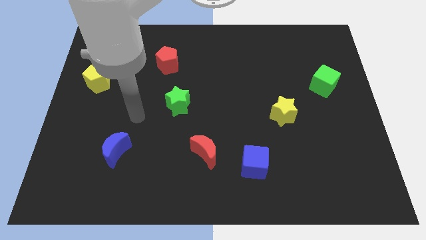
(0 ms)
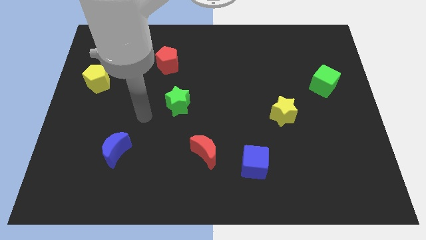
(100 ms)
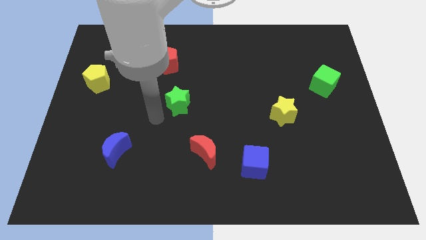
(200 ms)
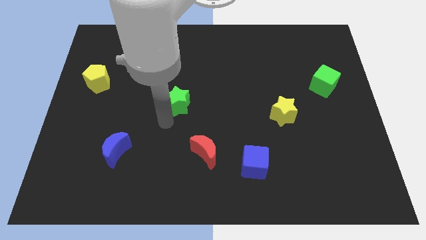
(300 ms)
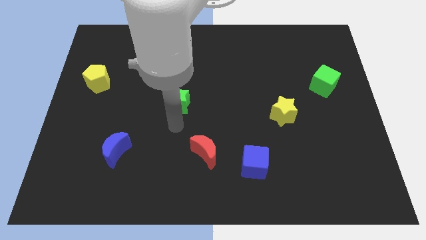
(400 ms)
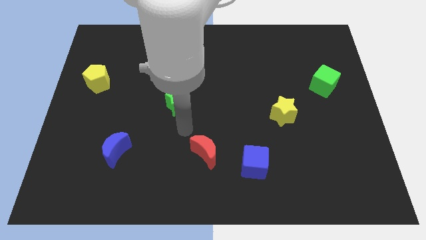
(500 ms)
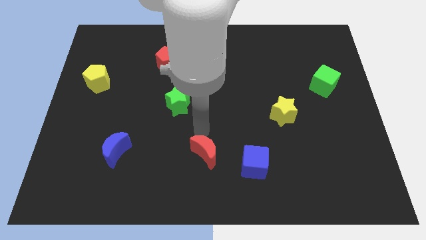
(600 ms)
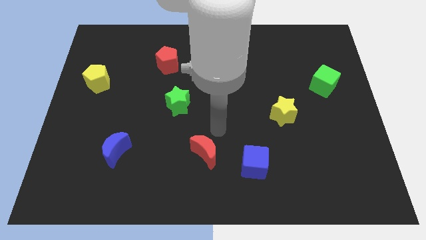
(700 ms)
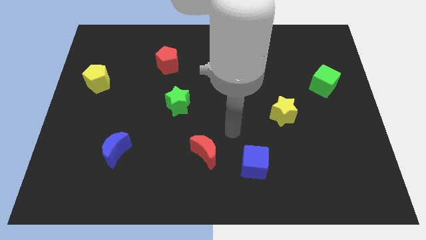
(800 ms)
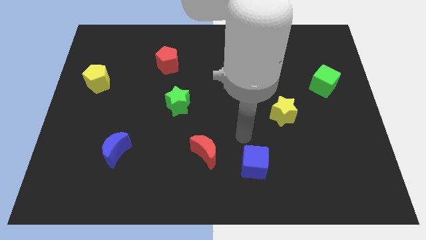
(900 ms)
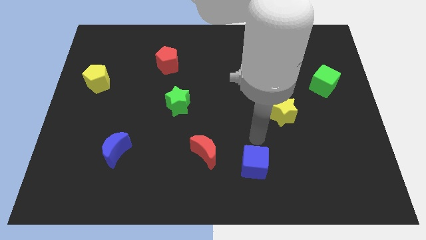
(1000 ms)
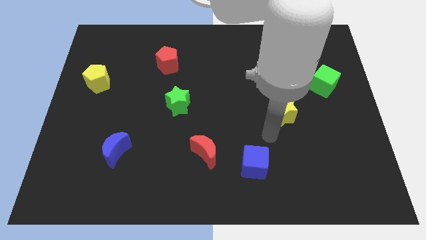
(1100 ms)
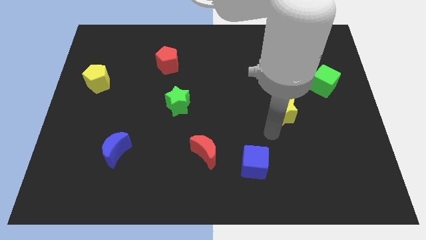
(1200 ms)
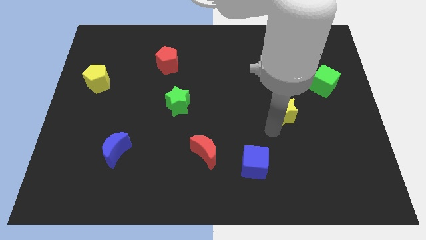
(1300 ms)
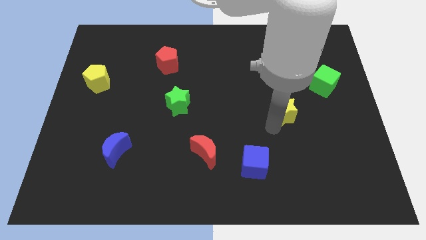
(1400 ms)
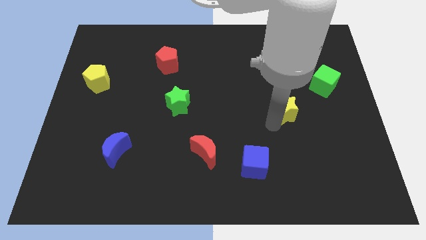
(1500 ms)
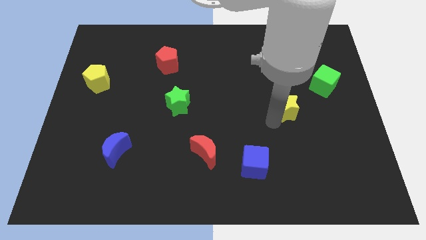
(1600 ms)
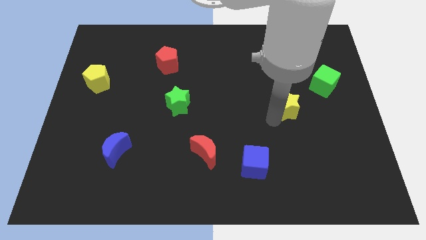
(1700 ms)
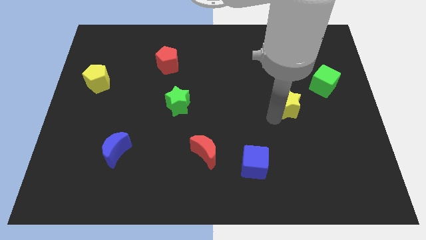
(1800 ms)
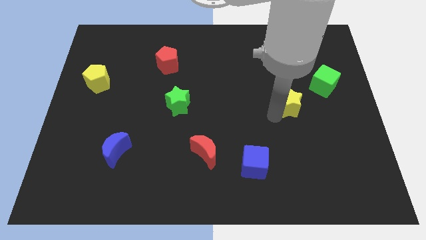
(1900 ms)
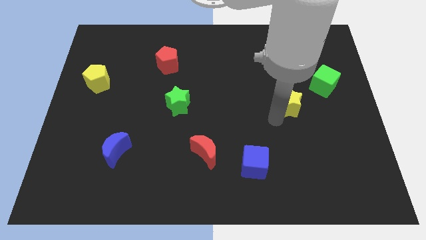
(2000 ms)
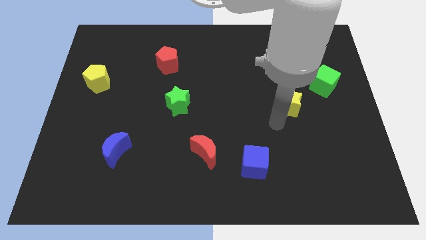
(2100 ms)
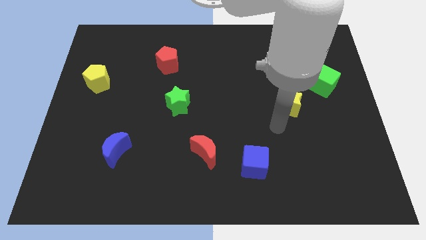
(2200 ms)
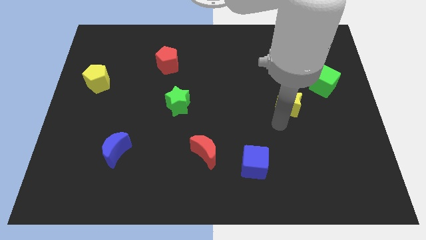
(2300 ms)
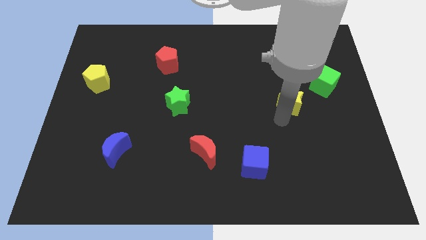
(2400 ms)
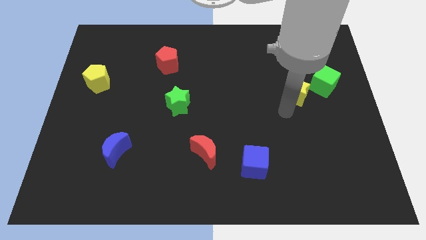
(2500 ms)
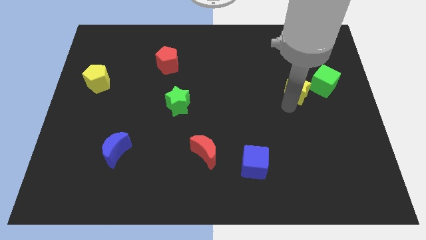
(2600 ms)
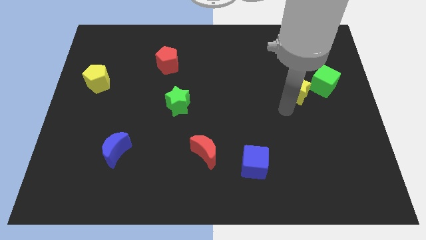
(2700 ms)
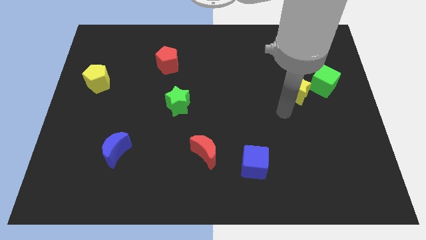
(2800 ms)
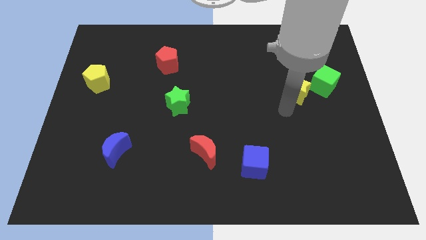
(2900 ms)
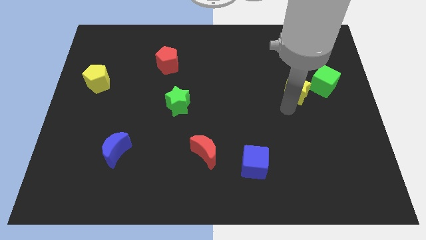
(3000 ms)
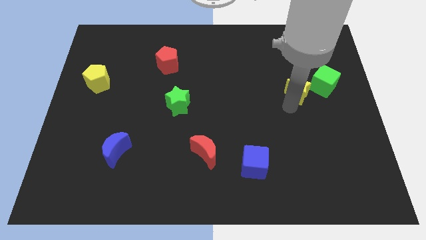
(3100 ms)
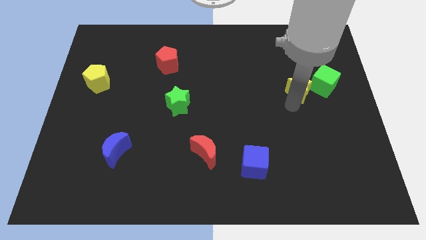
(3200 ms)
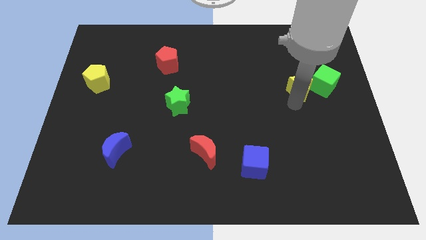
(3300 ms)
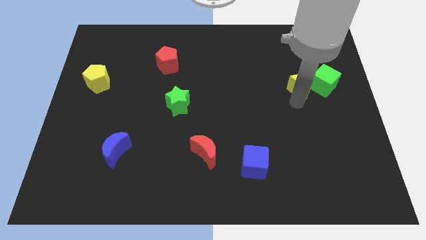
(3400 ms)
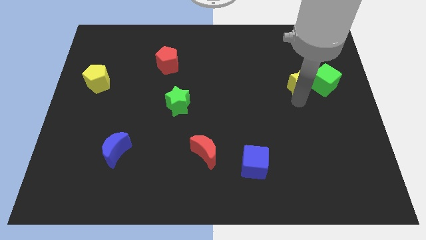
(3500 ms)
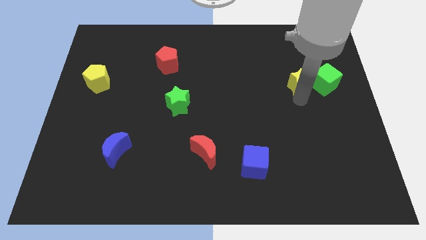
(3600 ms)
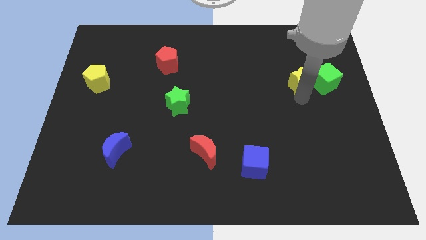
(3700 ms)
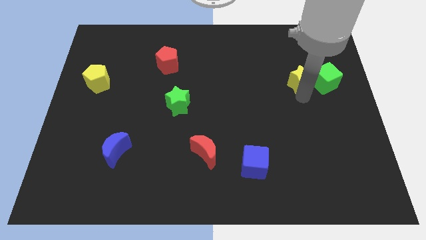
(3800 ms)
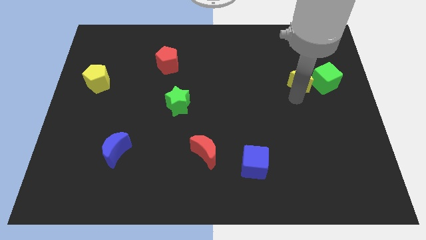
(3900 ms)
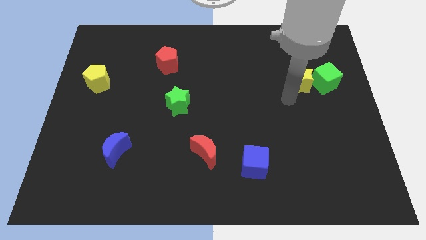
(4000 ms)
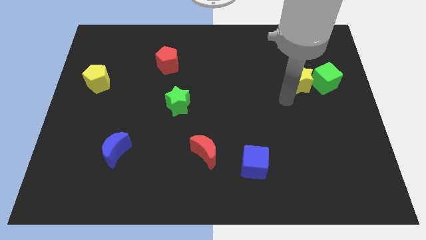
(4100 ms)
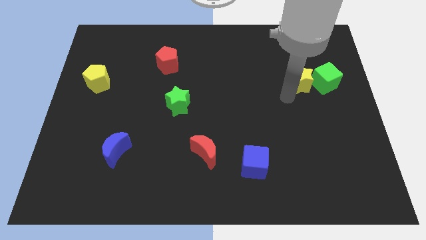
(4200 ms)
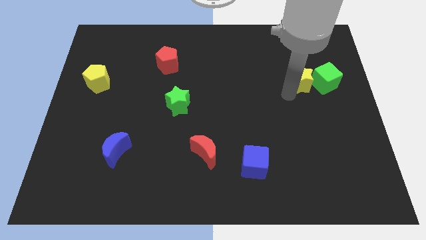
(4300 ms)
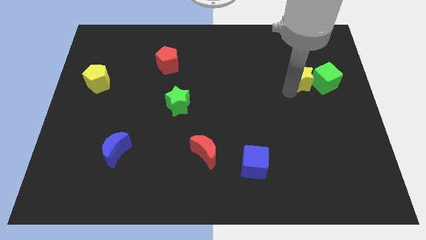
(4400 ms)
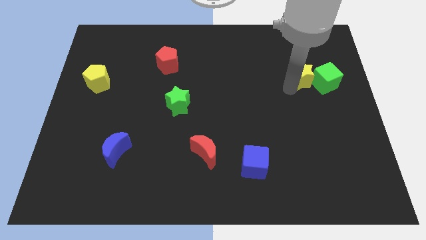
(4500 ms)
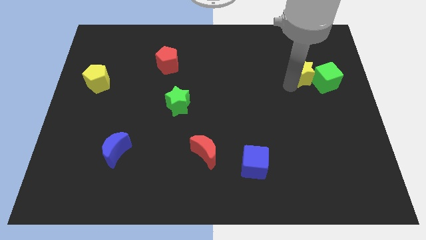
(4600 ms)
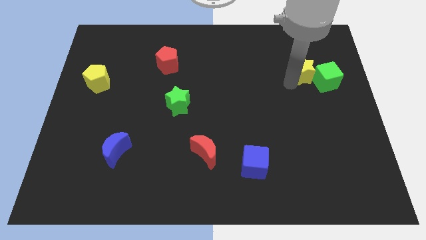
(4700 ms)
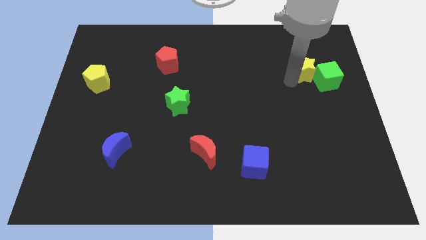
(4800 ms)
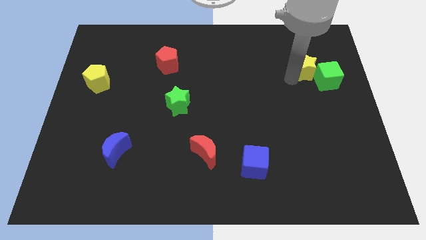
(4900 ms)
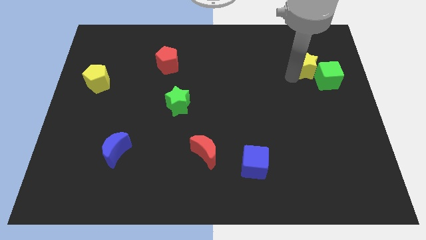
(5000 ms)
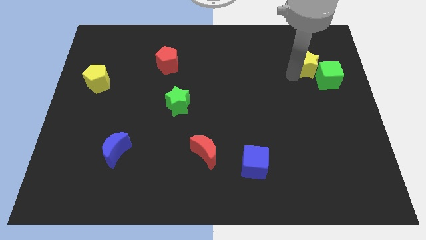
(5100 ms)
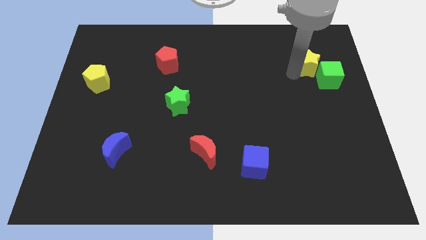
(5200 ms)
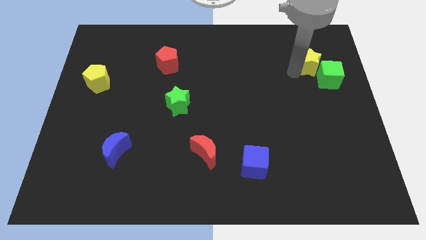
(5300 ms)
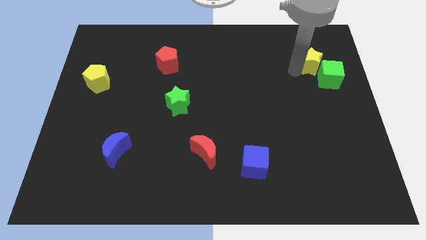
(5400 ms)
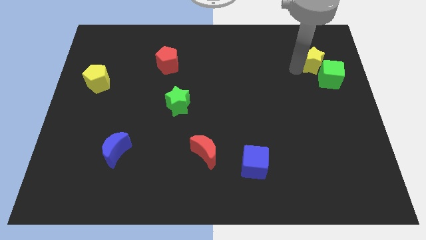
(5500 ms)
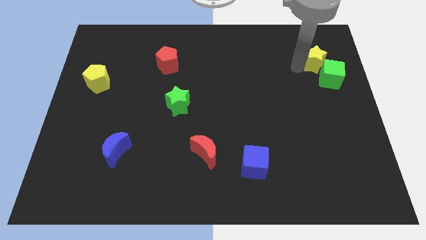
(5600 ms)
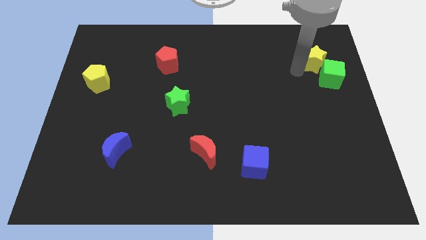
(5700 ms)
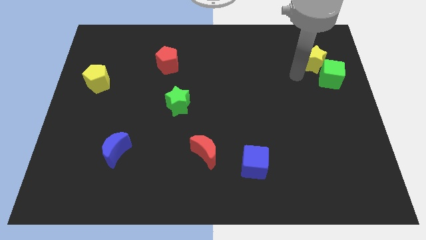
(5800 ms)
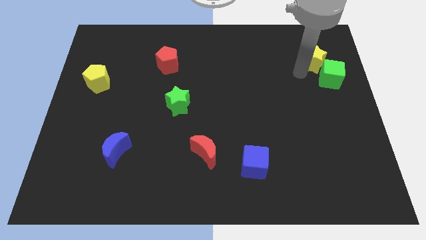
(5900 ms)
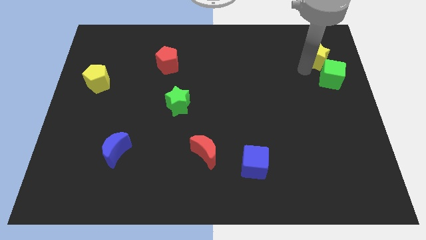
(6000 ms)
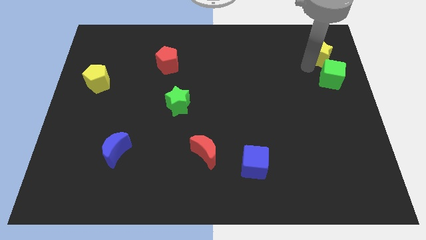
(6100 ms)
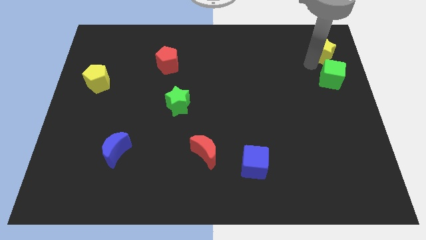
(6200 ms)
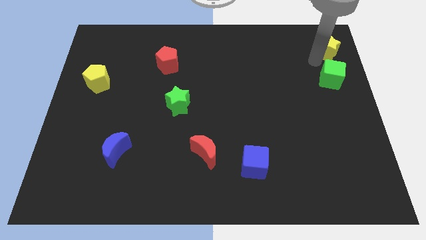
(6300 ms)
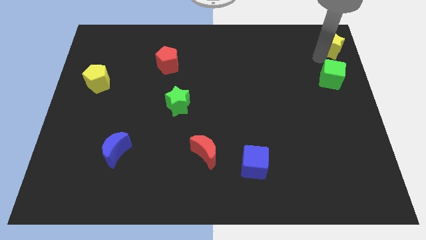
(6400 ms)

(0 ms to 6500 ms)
push the yellow star to the top right

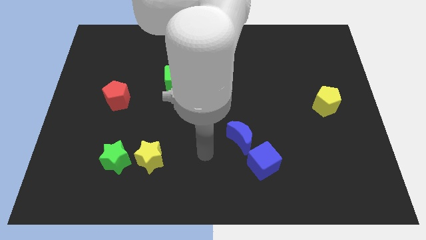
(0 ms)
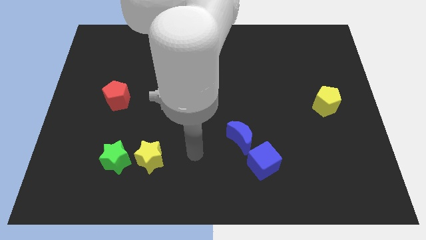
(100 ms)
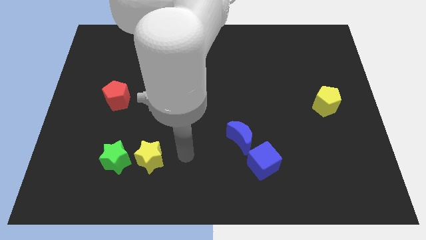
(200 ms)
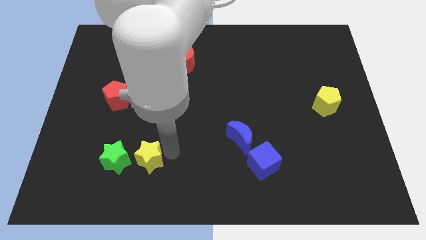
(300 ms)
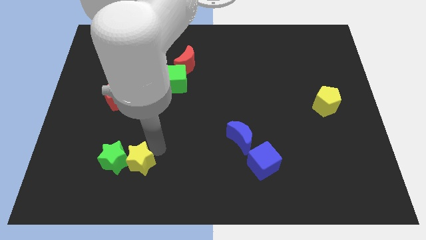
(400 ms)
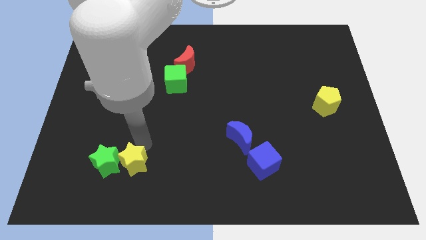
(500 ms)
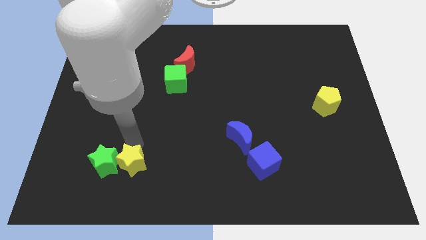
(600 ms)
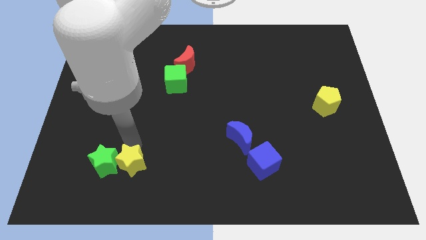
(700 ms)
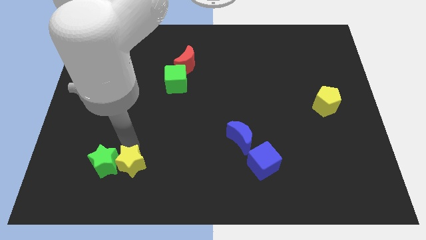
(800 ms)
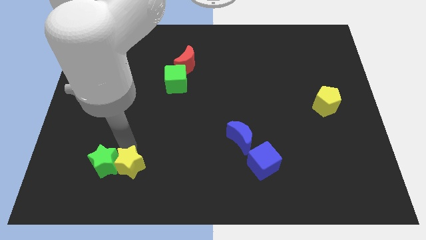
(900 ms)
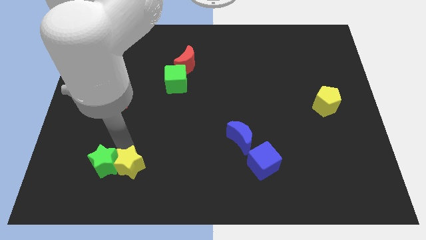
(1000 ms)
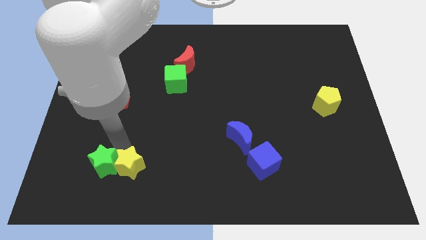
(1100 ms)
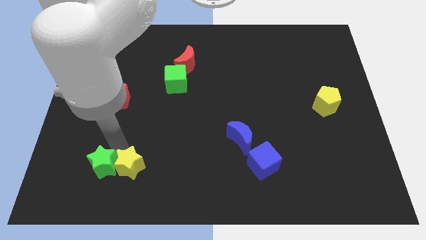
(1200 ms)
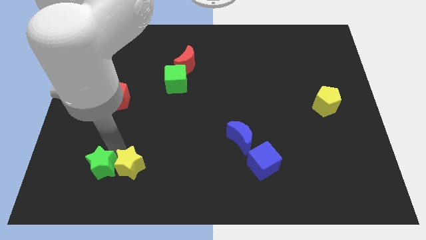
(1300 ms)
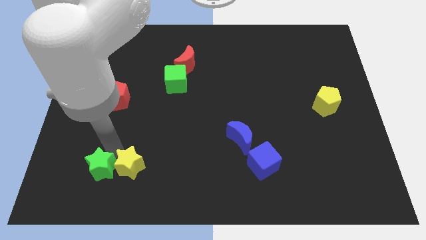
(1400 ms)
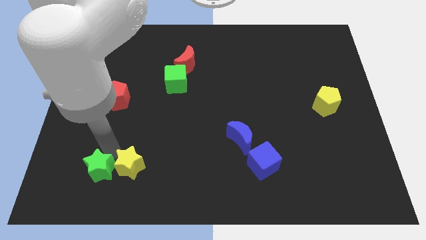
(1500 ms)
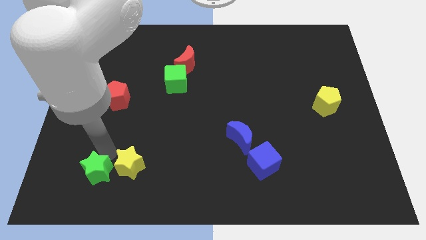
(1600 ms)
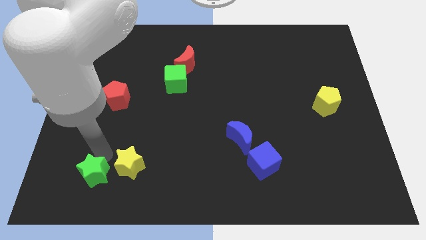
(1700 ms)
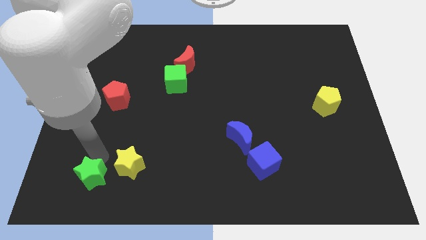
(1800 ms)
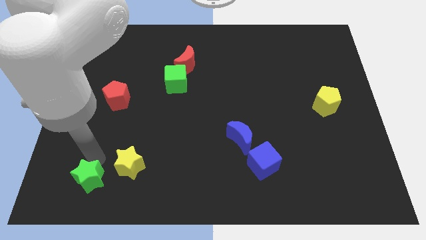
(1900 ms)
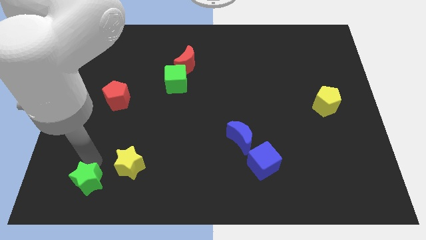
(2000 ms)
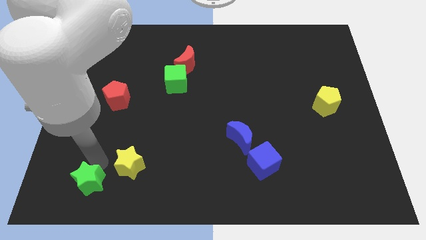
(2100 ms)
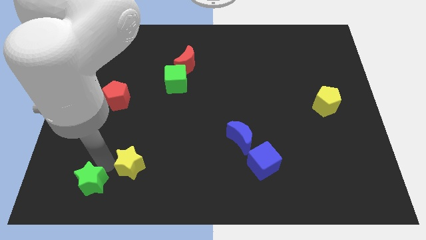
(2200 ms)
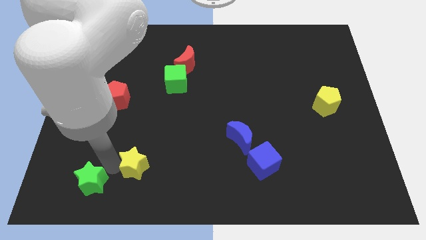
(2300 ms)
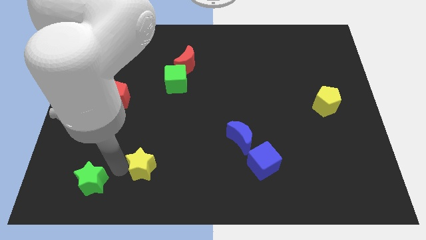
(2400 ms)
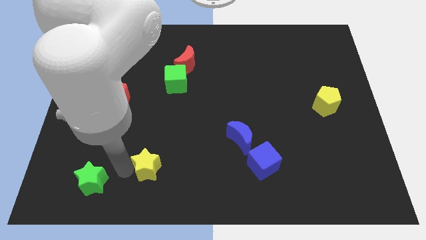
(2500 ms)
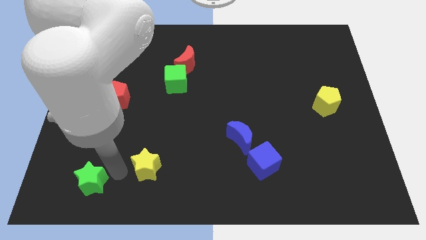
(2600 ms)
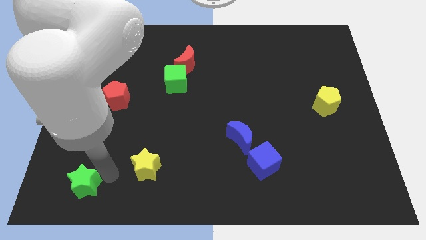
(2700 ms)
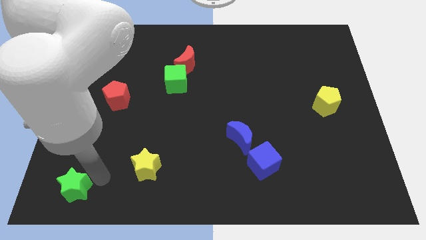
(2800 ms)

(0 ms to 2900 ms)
move the green star to the bottom left corner
